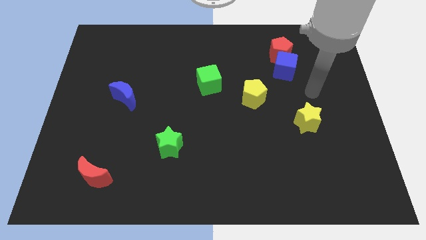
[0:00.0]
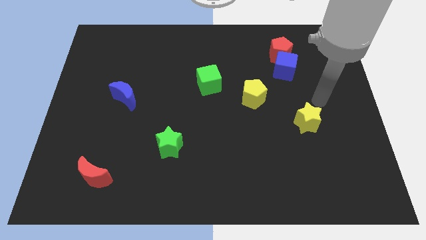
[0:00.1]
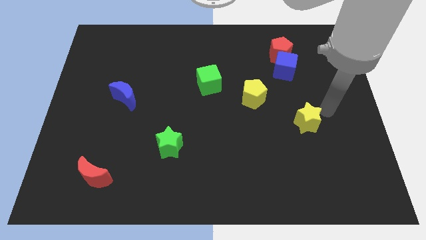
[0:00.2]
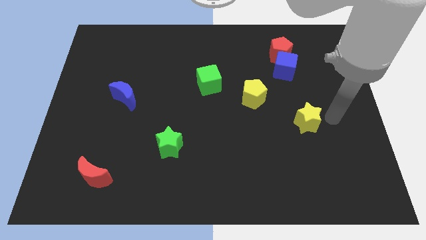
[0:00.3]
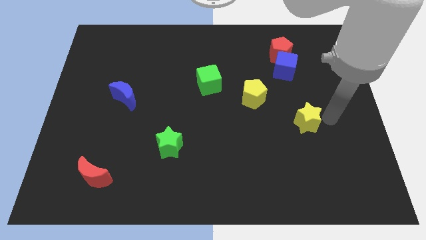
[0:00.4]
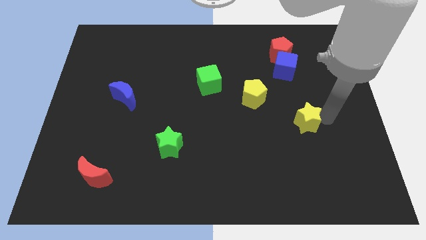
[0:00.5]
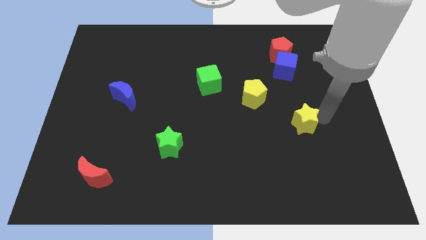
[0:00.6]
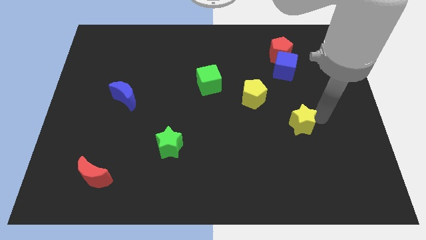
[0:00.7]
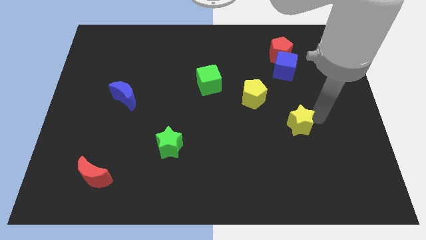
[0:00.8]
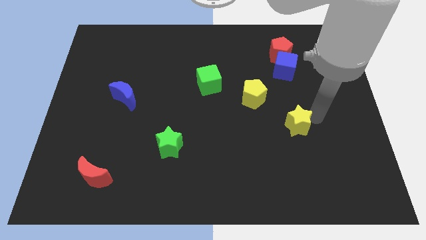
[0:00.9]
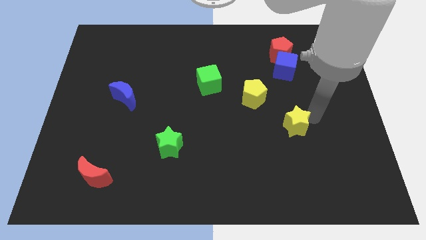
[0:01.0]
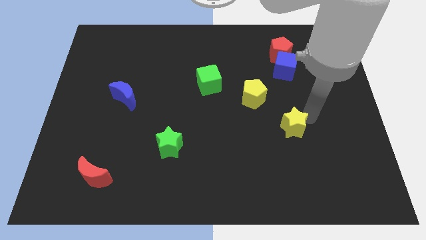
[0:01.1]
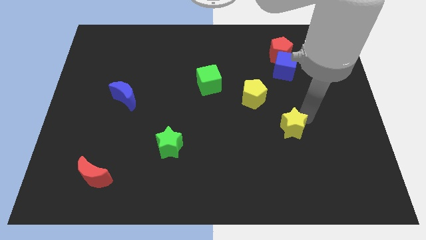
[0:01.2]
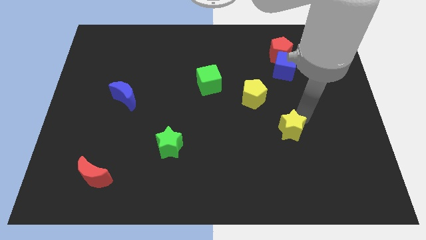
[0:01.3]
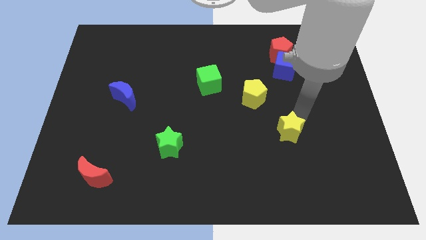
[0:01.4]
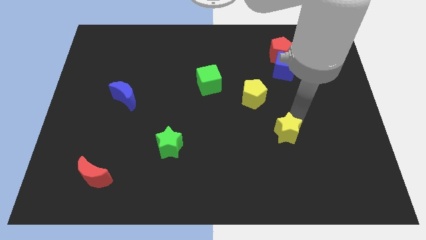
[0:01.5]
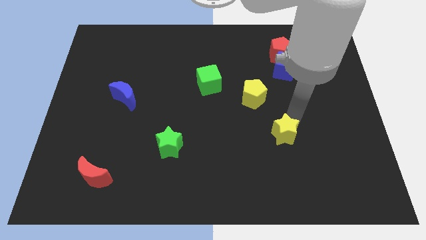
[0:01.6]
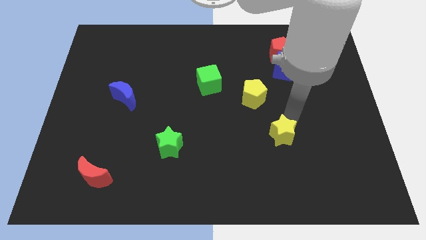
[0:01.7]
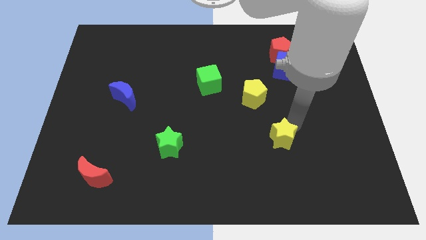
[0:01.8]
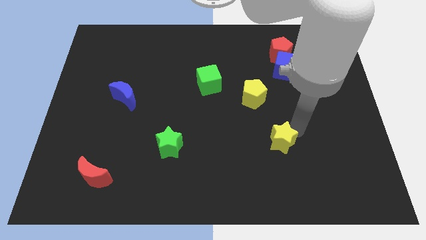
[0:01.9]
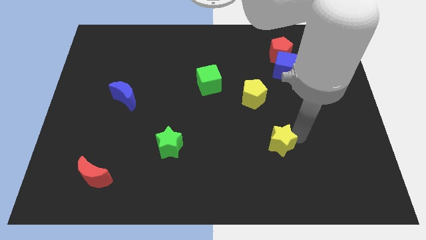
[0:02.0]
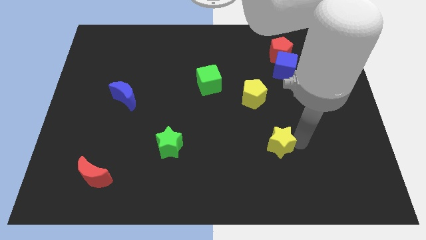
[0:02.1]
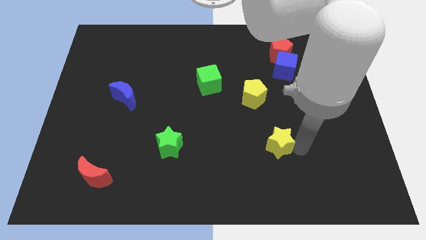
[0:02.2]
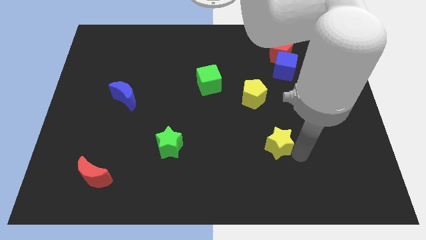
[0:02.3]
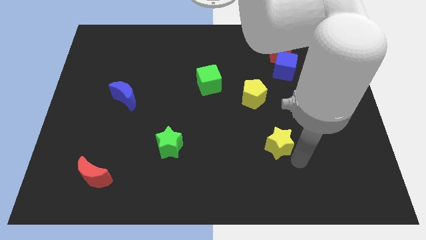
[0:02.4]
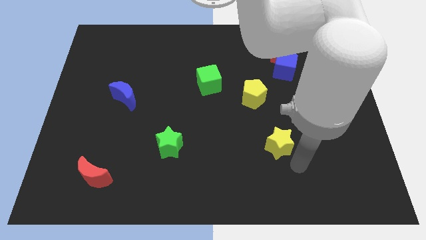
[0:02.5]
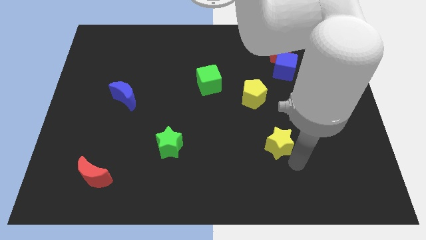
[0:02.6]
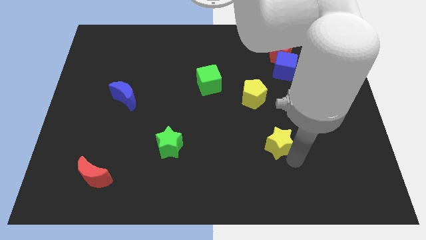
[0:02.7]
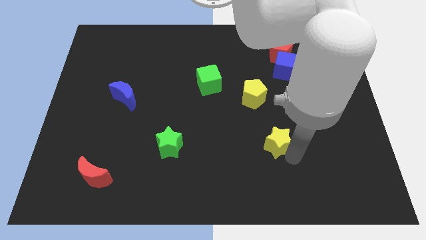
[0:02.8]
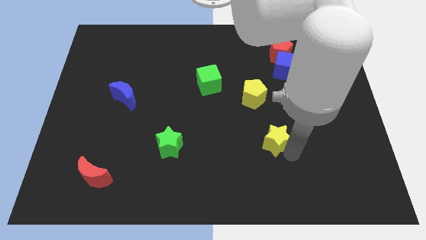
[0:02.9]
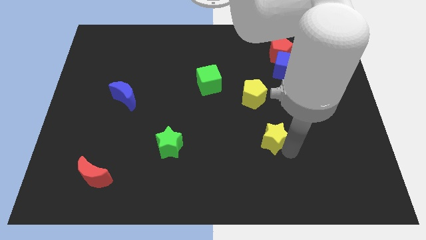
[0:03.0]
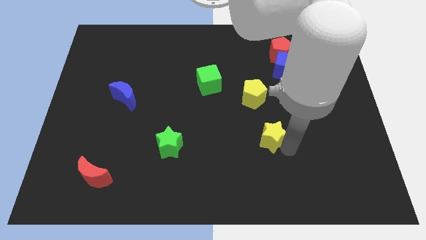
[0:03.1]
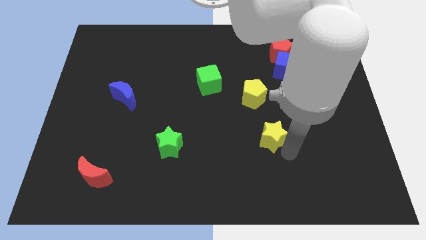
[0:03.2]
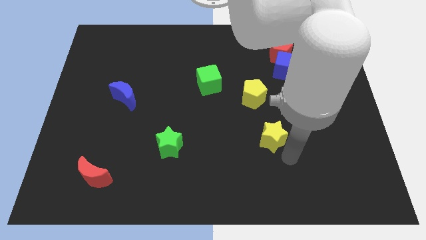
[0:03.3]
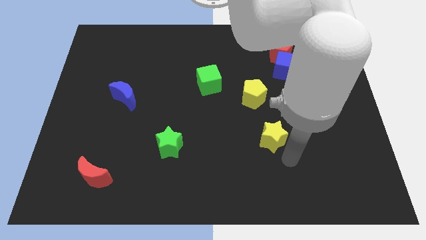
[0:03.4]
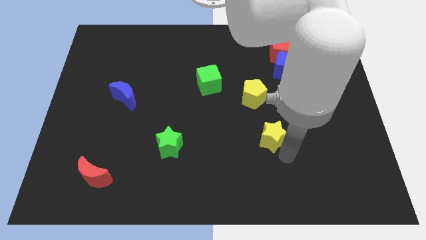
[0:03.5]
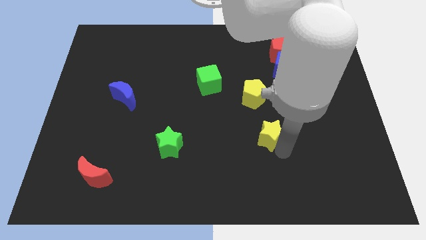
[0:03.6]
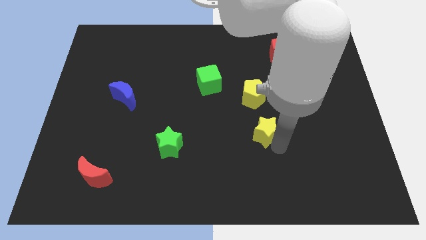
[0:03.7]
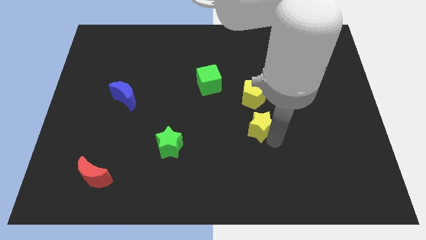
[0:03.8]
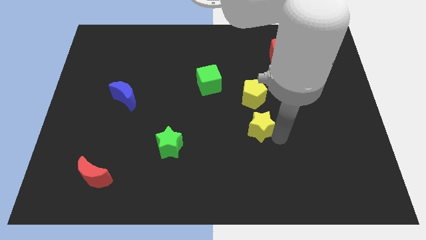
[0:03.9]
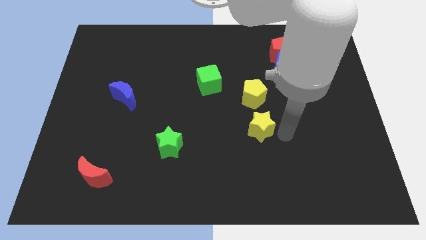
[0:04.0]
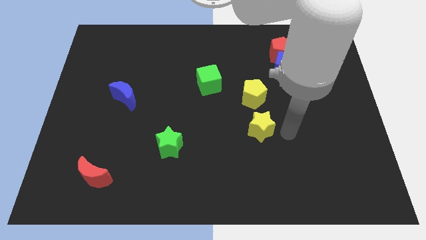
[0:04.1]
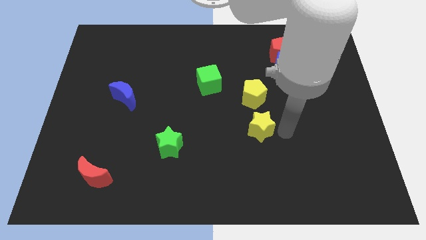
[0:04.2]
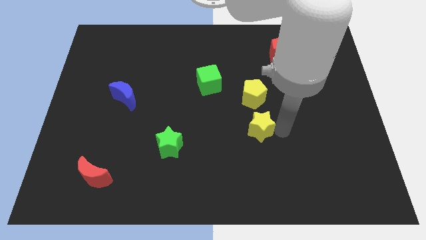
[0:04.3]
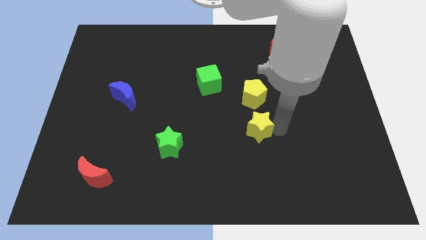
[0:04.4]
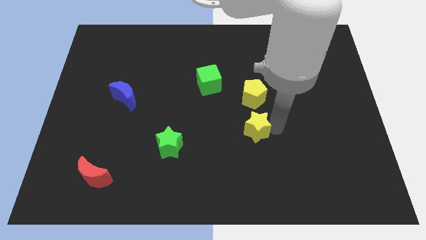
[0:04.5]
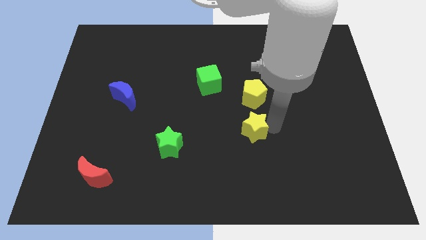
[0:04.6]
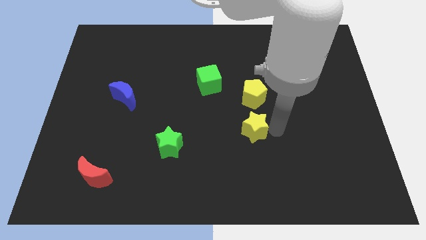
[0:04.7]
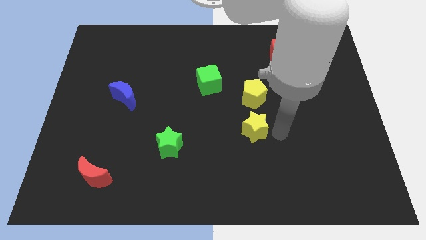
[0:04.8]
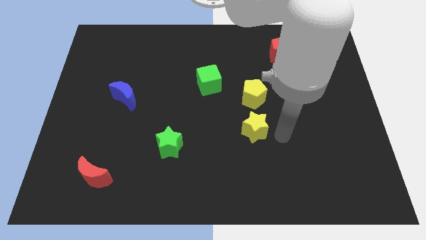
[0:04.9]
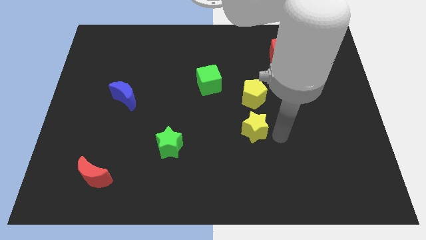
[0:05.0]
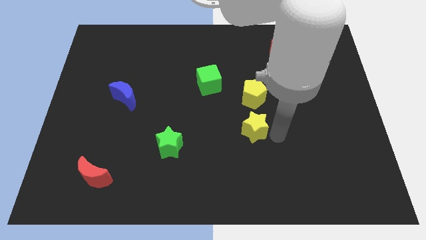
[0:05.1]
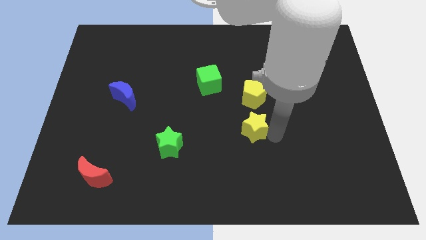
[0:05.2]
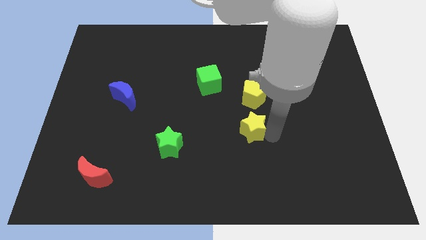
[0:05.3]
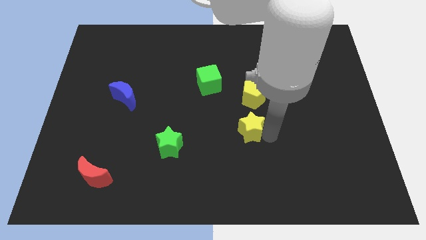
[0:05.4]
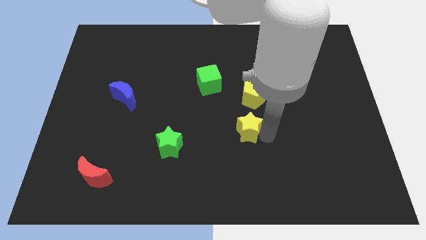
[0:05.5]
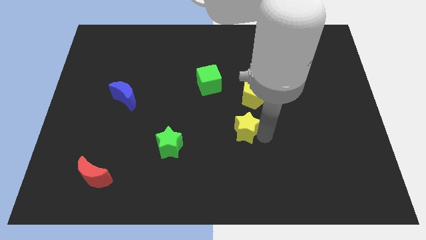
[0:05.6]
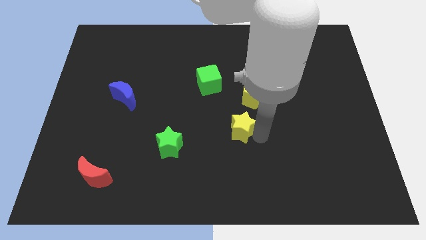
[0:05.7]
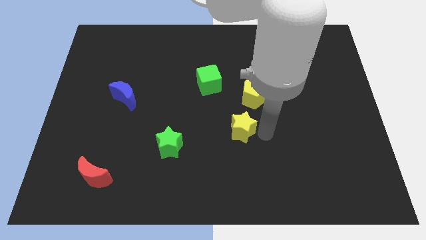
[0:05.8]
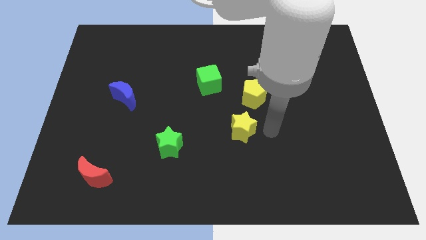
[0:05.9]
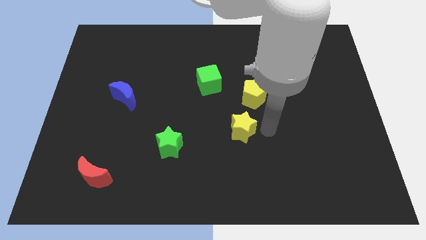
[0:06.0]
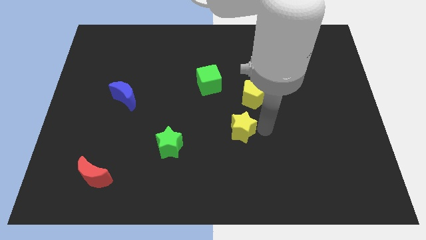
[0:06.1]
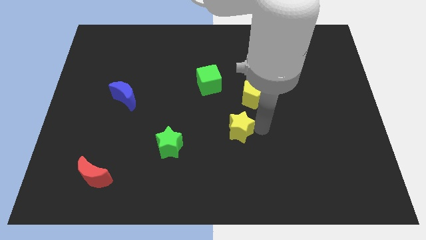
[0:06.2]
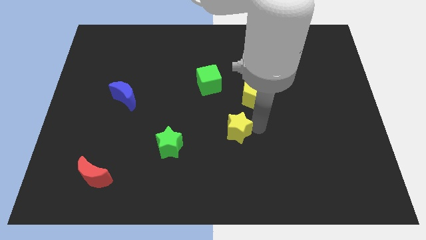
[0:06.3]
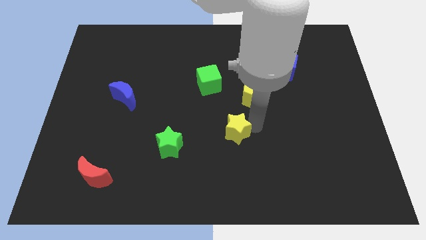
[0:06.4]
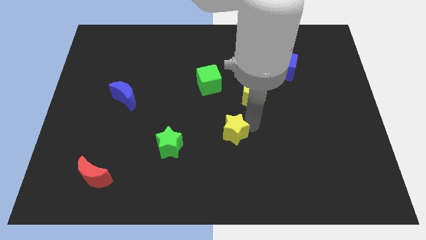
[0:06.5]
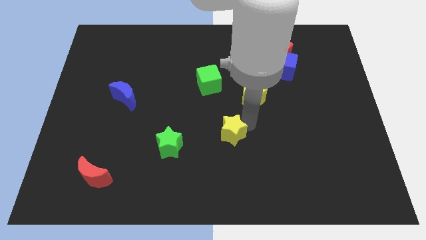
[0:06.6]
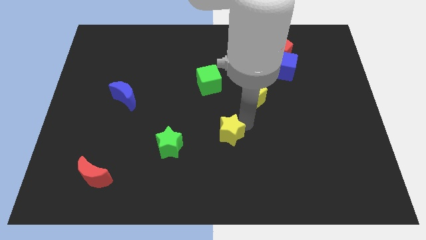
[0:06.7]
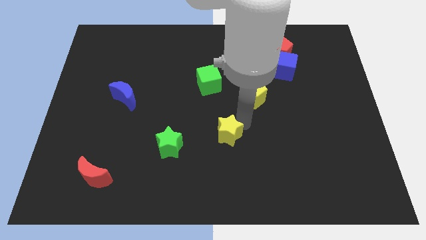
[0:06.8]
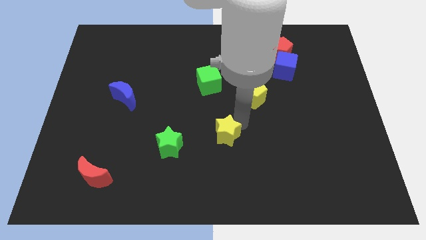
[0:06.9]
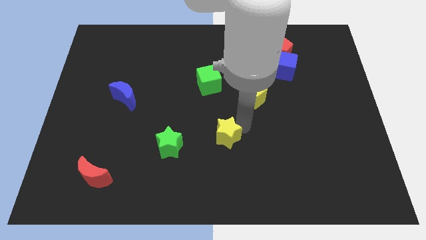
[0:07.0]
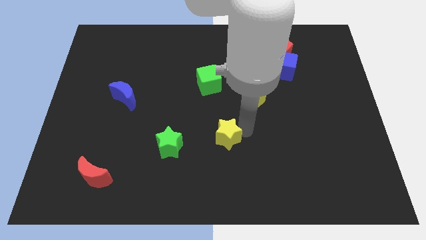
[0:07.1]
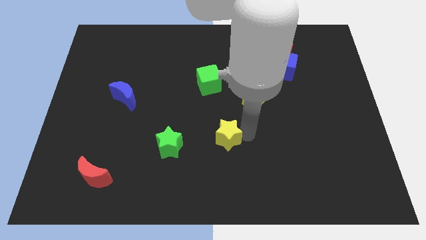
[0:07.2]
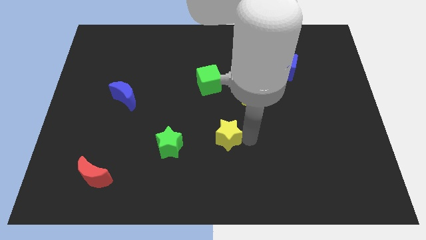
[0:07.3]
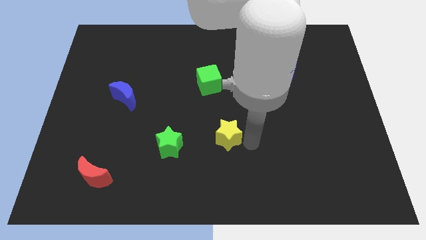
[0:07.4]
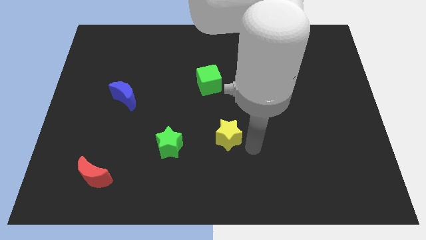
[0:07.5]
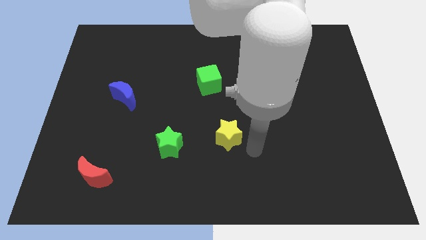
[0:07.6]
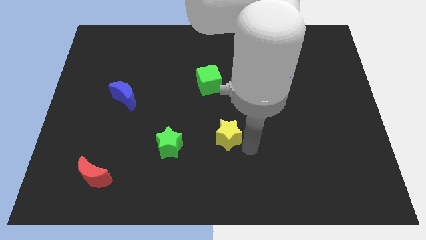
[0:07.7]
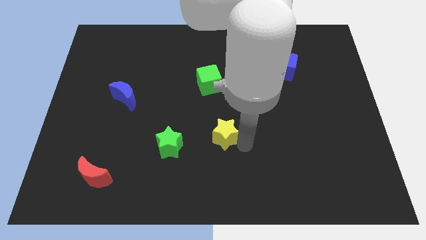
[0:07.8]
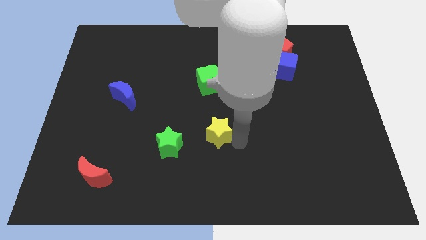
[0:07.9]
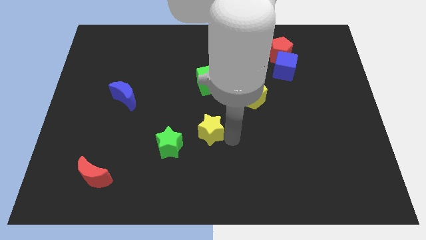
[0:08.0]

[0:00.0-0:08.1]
move the yellow star to the left

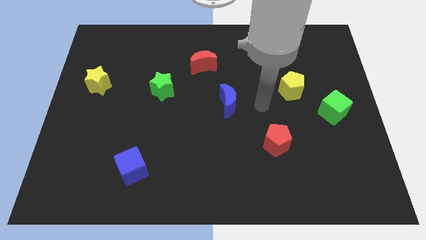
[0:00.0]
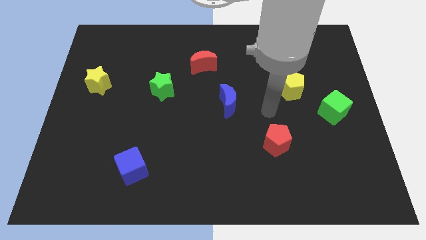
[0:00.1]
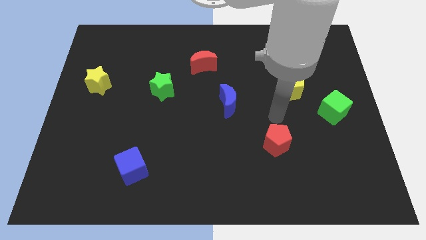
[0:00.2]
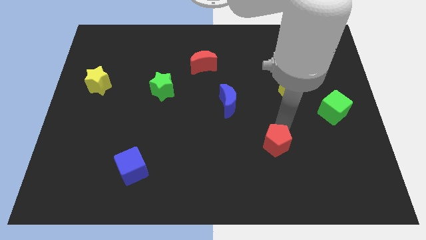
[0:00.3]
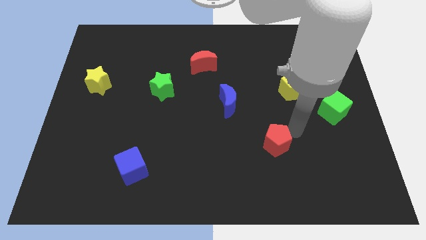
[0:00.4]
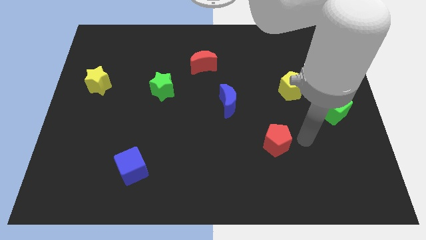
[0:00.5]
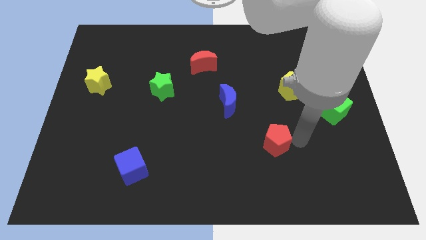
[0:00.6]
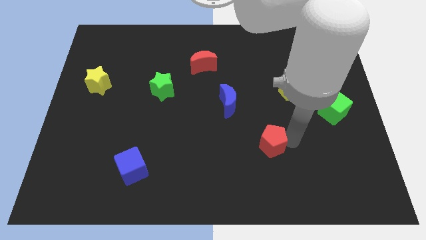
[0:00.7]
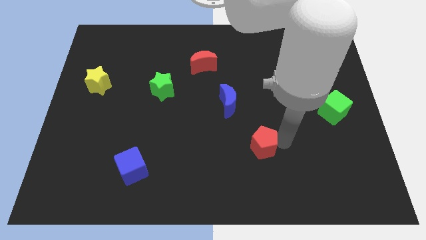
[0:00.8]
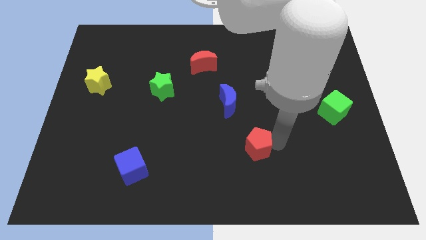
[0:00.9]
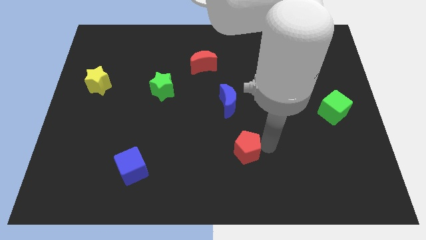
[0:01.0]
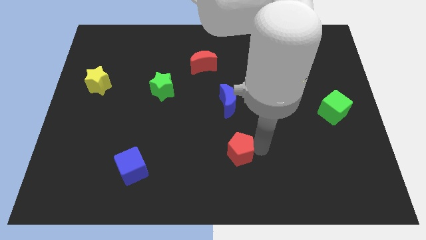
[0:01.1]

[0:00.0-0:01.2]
push the red pentagon slightly to the left
